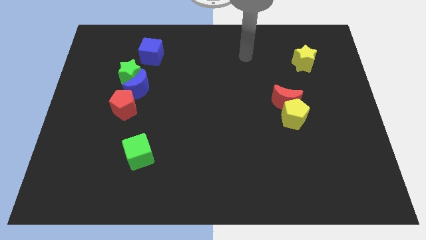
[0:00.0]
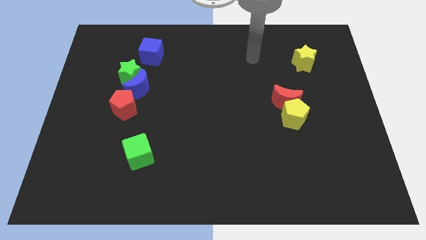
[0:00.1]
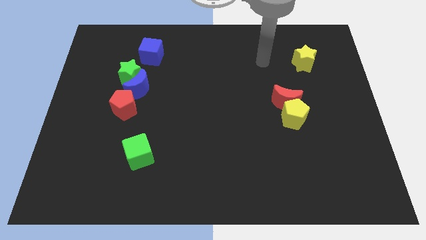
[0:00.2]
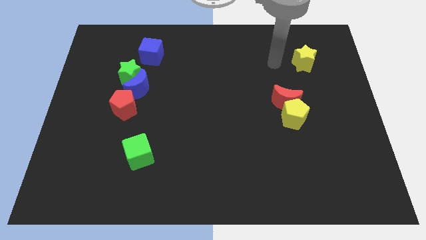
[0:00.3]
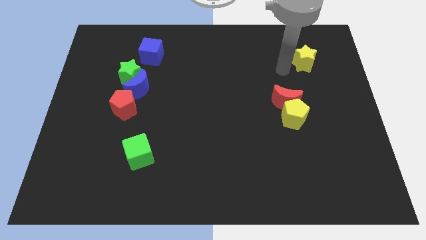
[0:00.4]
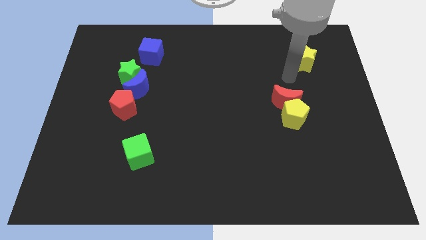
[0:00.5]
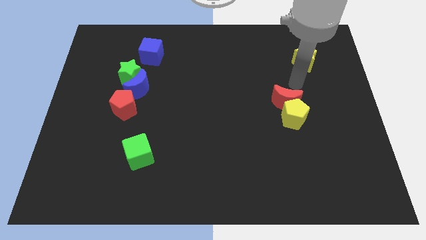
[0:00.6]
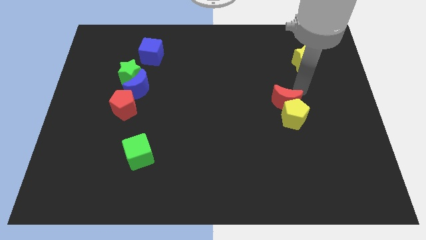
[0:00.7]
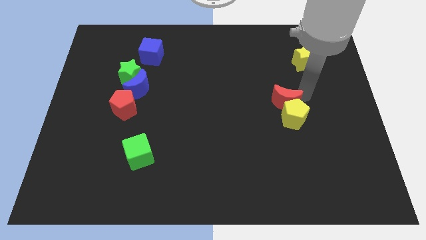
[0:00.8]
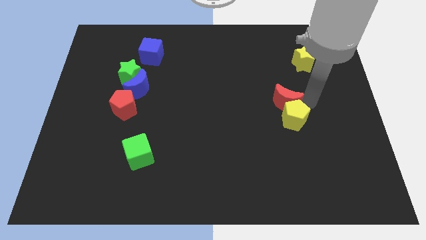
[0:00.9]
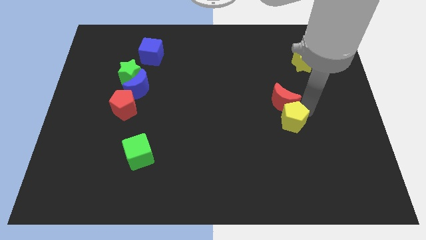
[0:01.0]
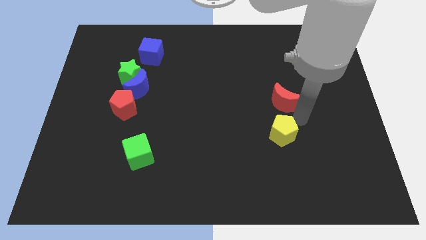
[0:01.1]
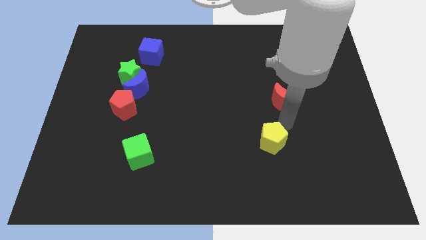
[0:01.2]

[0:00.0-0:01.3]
move the red moon away from the yellow pentagon

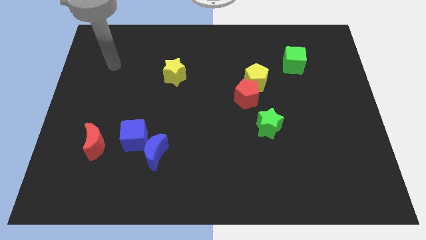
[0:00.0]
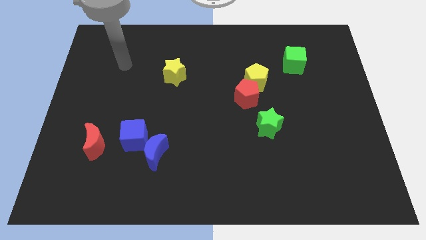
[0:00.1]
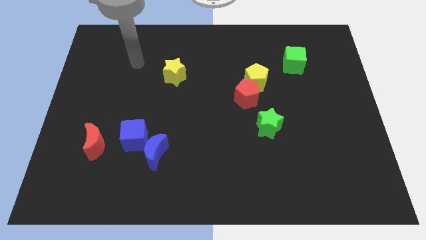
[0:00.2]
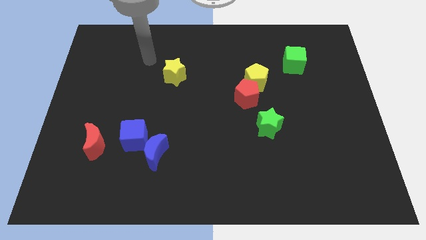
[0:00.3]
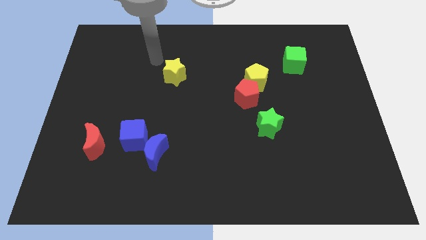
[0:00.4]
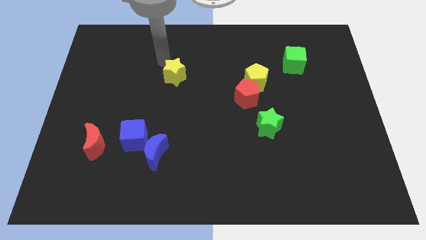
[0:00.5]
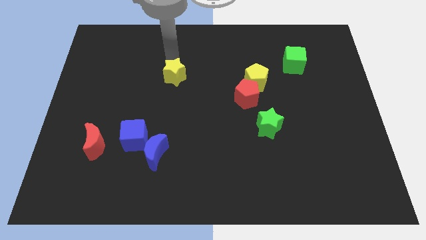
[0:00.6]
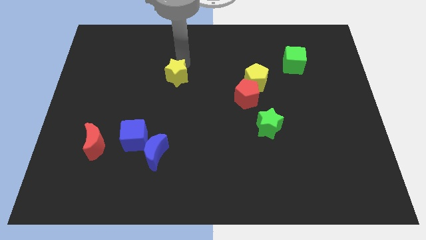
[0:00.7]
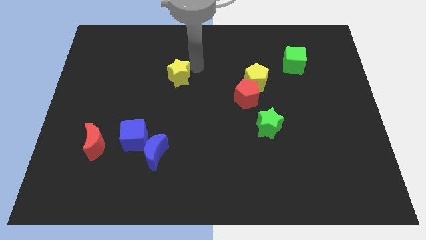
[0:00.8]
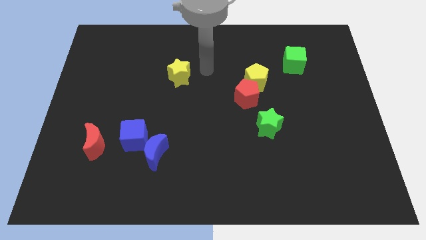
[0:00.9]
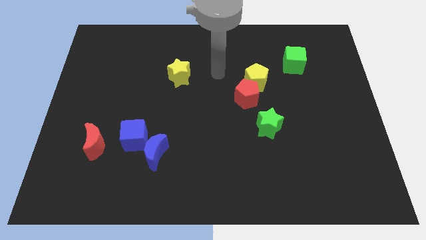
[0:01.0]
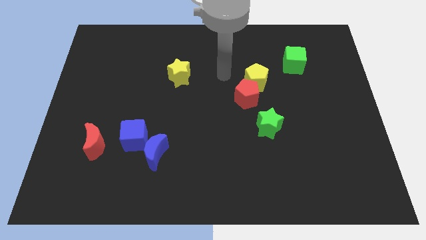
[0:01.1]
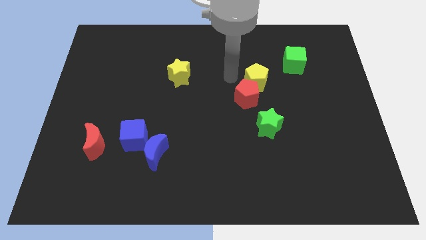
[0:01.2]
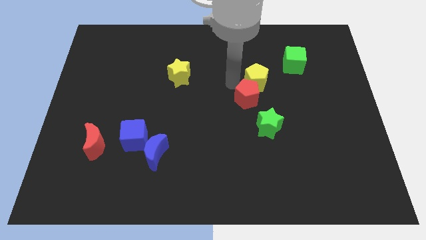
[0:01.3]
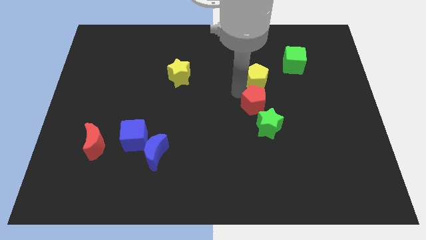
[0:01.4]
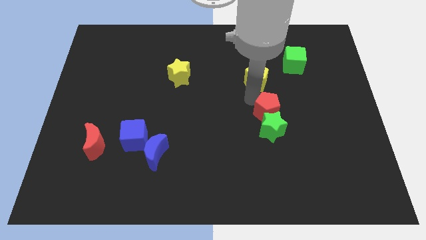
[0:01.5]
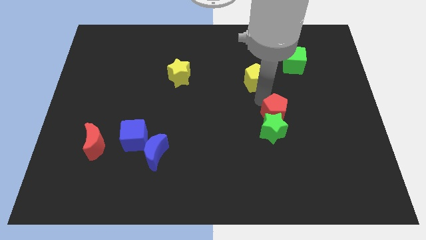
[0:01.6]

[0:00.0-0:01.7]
separate the yellow pentagon from the red pentagon

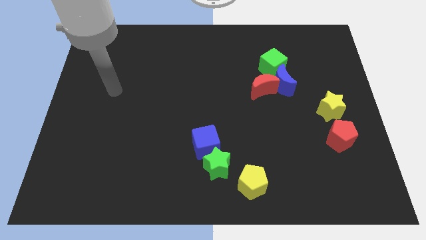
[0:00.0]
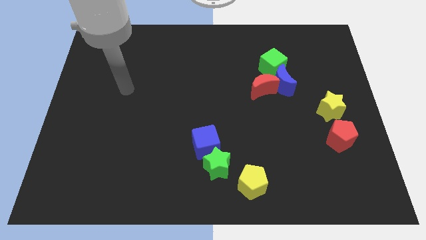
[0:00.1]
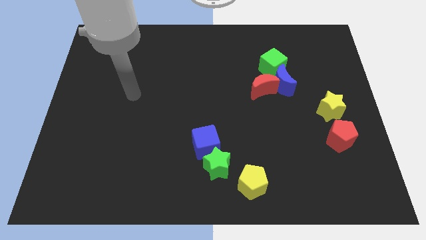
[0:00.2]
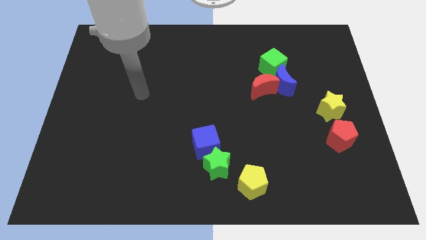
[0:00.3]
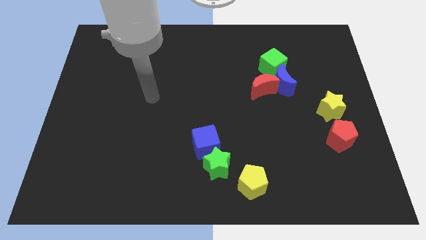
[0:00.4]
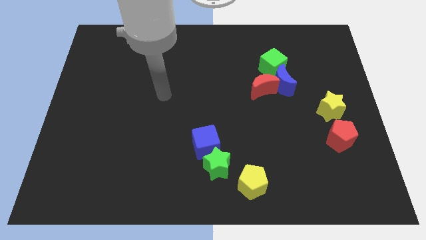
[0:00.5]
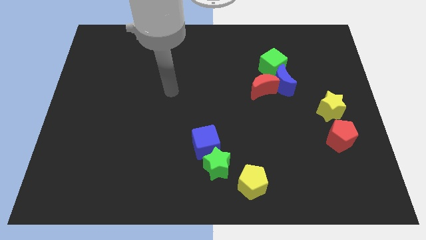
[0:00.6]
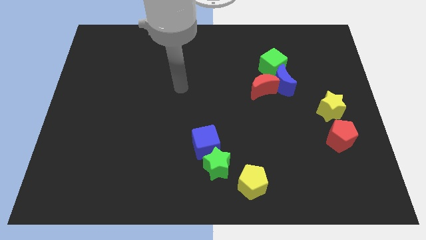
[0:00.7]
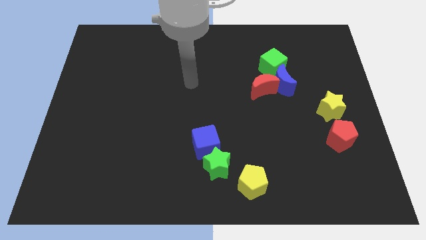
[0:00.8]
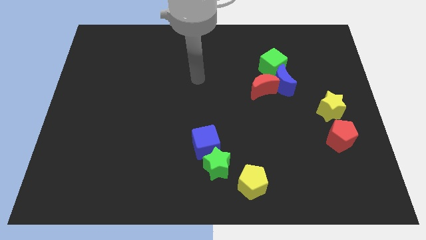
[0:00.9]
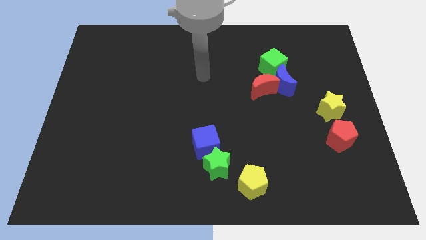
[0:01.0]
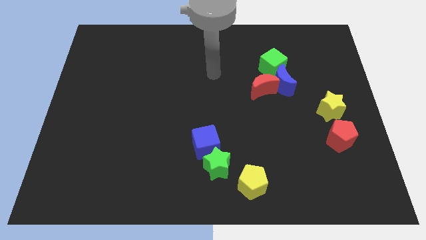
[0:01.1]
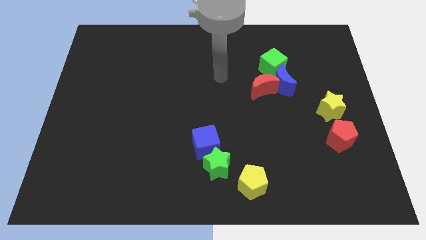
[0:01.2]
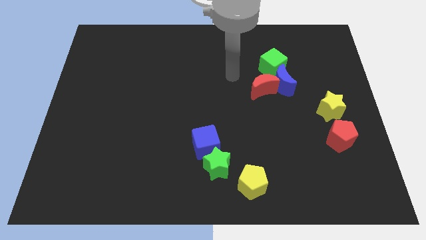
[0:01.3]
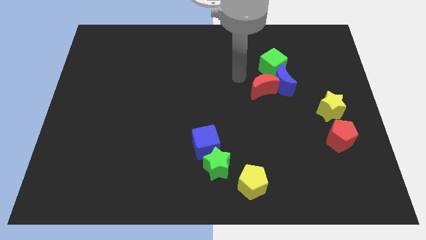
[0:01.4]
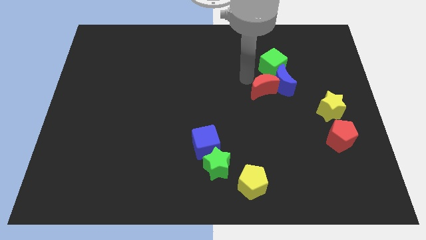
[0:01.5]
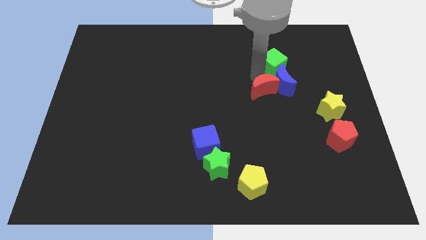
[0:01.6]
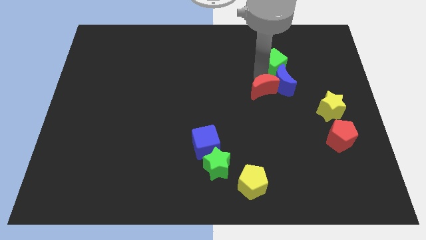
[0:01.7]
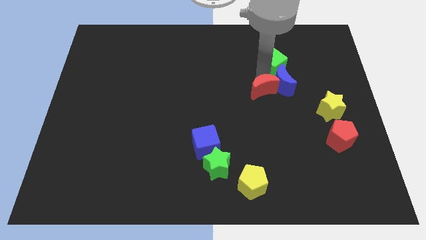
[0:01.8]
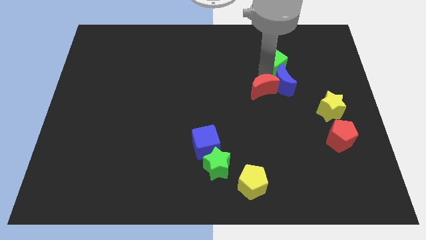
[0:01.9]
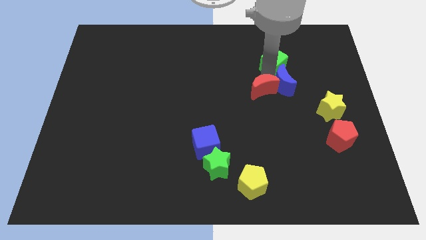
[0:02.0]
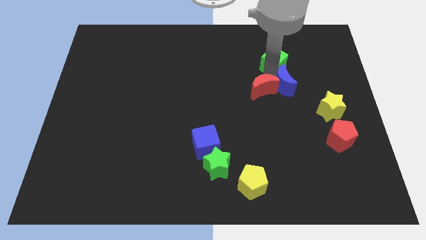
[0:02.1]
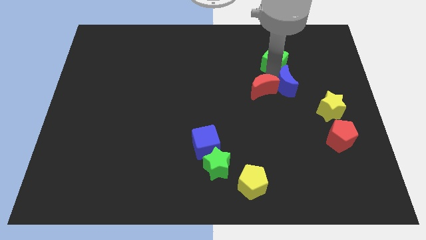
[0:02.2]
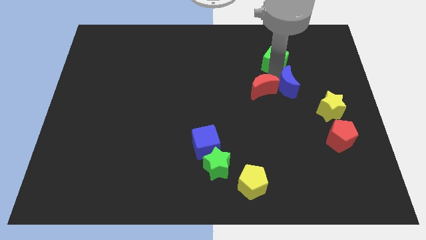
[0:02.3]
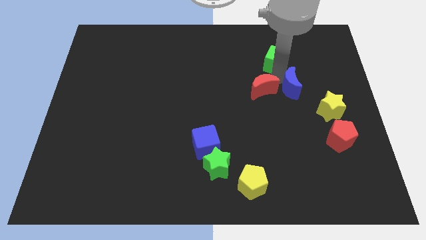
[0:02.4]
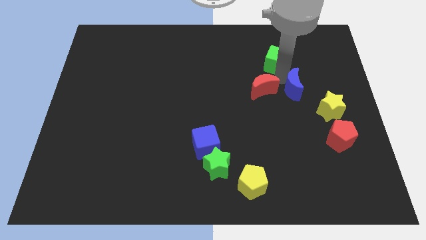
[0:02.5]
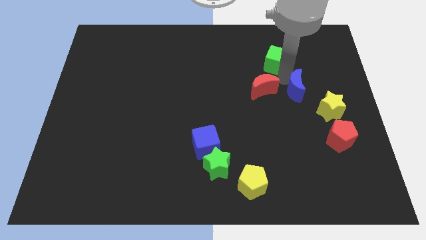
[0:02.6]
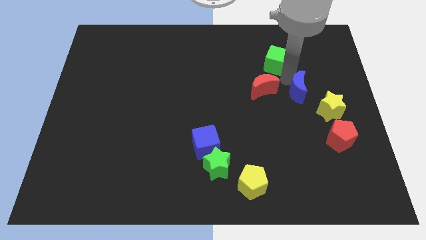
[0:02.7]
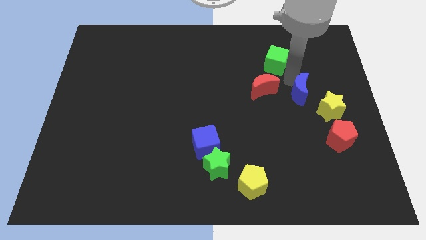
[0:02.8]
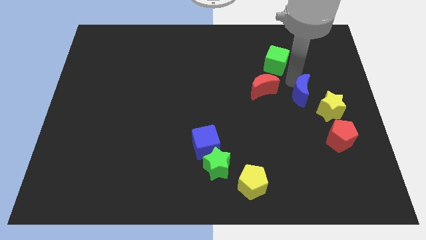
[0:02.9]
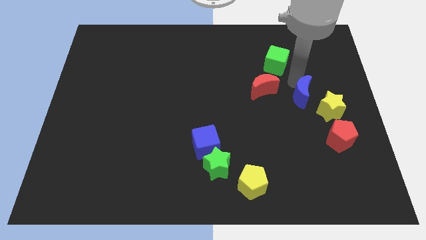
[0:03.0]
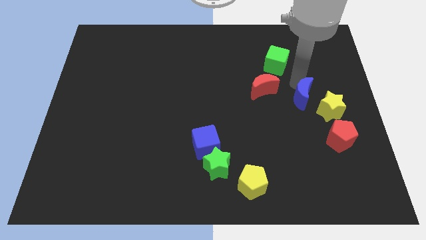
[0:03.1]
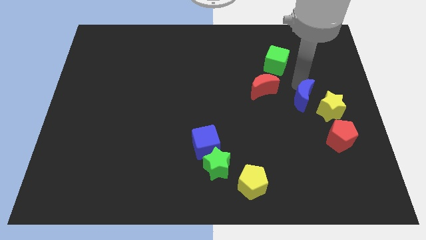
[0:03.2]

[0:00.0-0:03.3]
move the blue moon away from the red moon and green cube

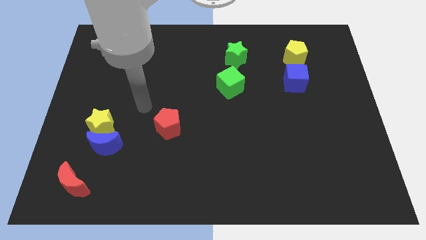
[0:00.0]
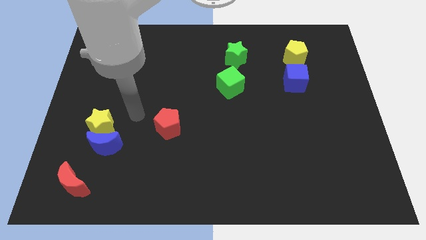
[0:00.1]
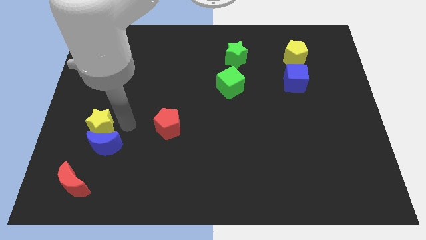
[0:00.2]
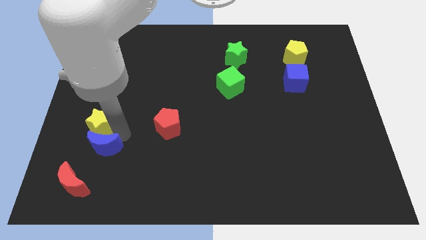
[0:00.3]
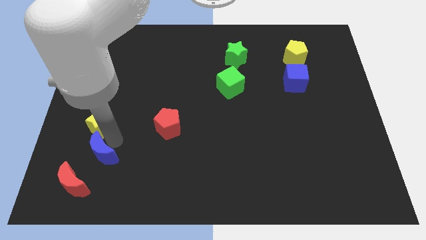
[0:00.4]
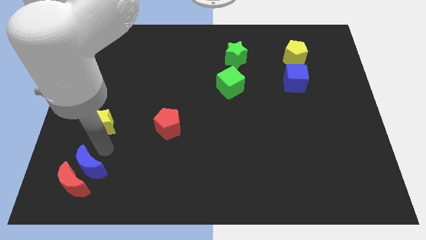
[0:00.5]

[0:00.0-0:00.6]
pull the yellow star apart from the blue moon

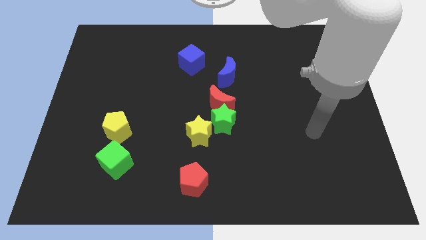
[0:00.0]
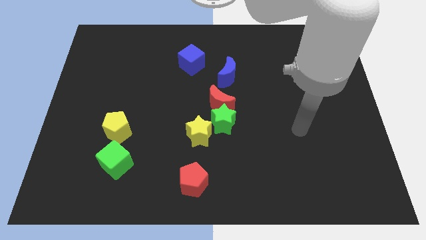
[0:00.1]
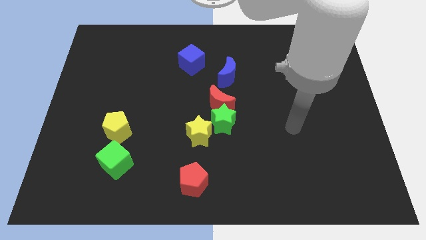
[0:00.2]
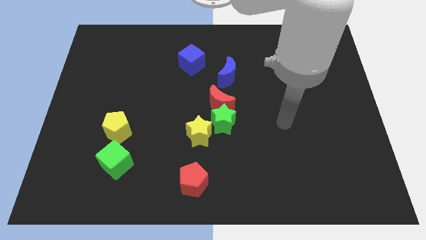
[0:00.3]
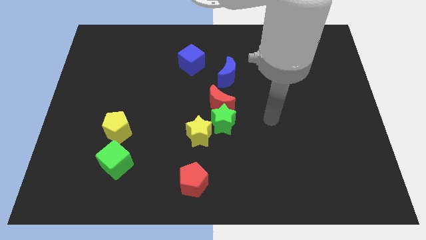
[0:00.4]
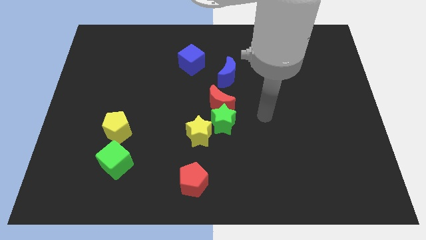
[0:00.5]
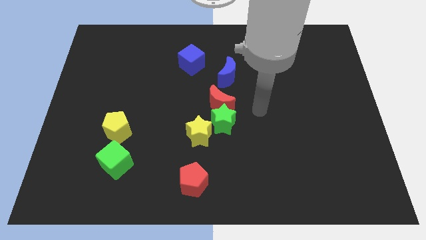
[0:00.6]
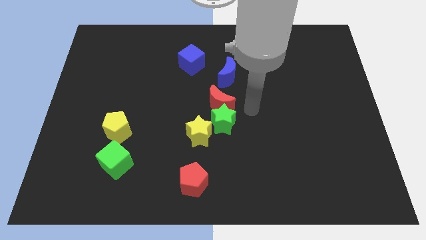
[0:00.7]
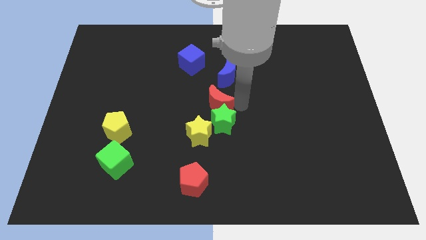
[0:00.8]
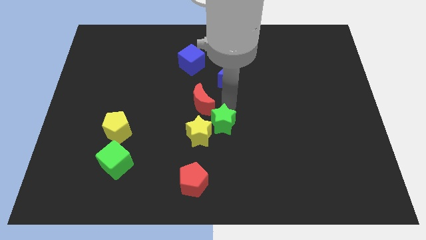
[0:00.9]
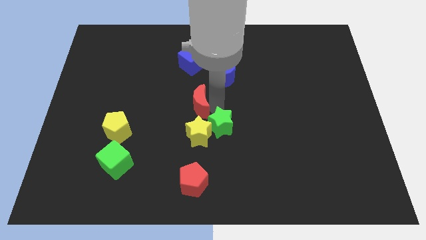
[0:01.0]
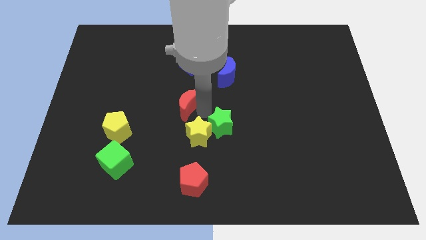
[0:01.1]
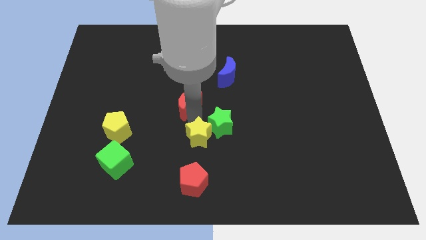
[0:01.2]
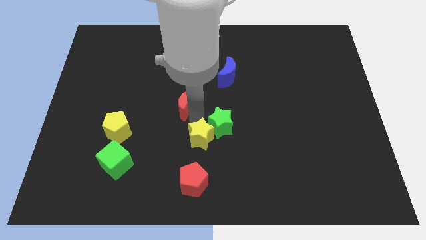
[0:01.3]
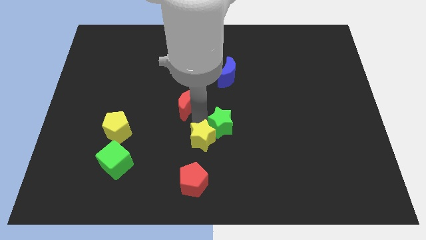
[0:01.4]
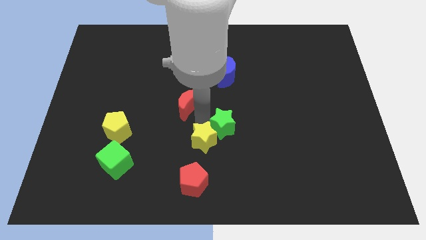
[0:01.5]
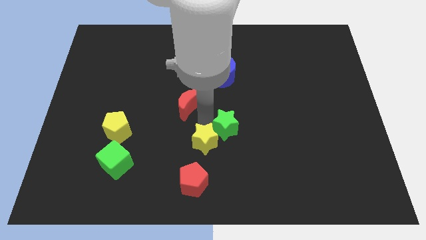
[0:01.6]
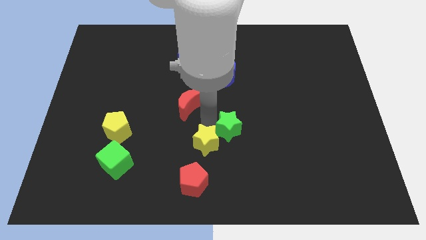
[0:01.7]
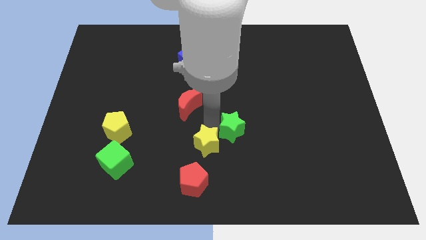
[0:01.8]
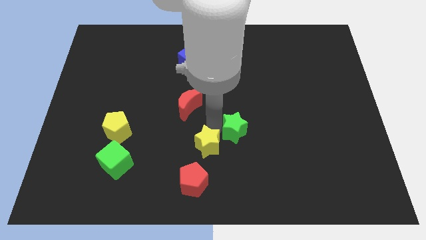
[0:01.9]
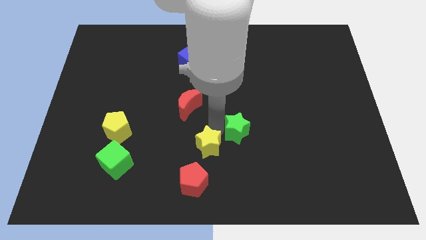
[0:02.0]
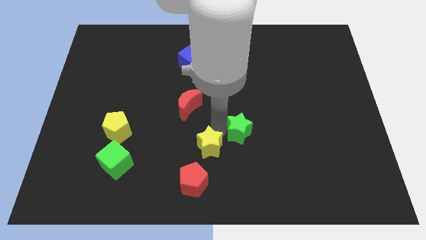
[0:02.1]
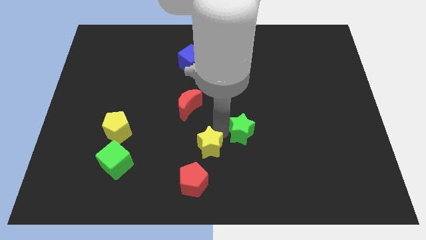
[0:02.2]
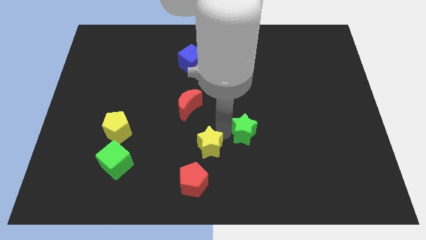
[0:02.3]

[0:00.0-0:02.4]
move the green star away from the red moon and yellow star
